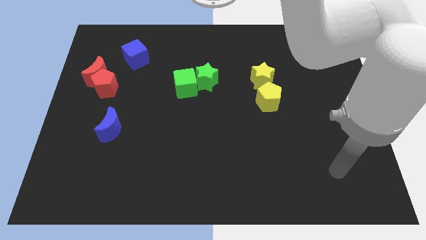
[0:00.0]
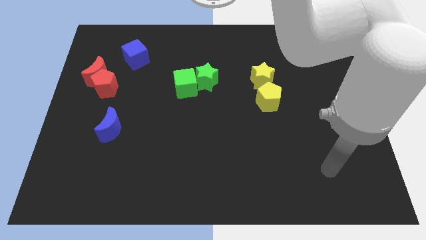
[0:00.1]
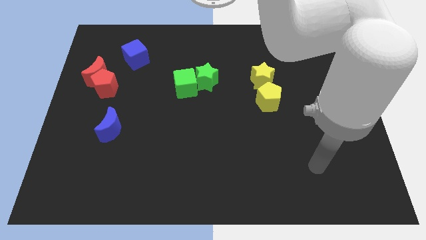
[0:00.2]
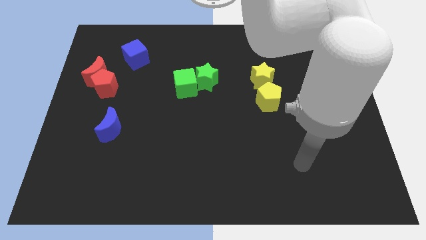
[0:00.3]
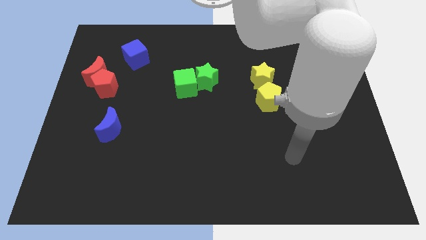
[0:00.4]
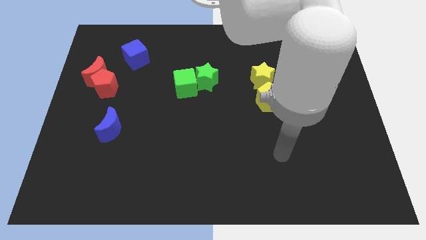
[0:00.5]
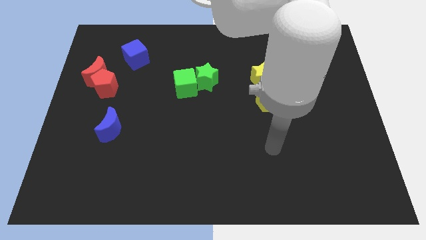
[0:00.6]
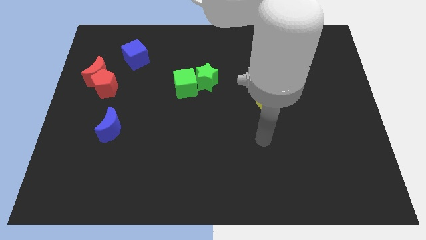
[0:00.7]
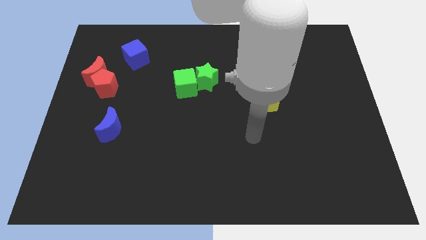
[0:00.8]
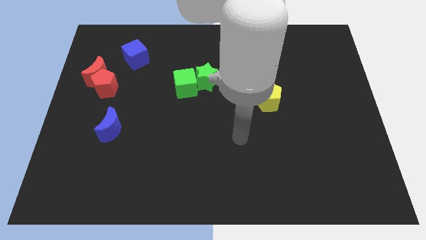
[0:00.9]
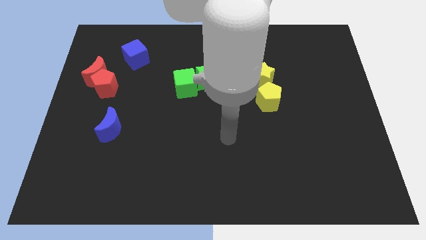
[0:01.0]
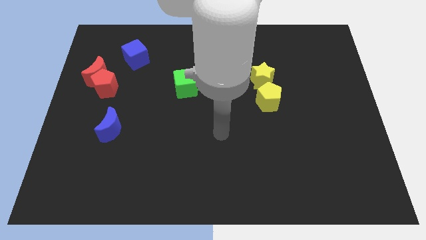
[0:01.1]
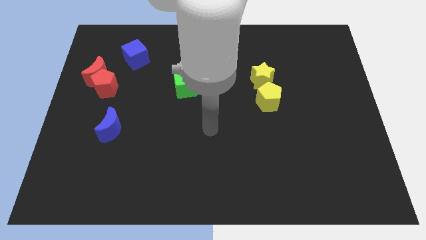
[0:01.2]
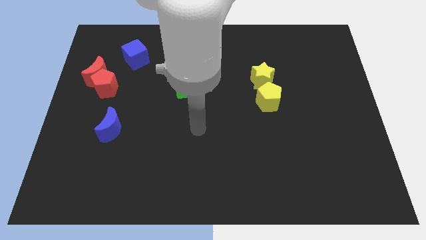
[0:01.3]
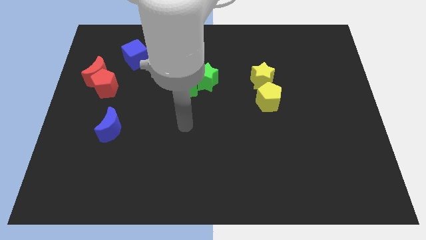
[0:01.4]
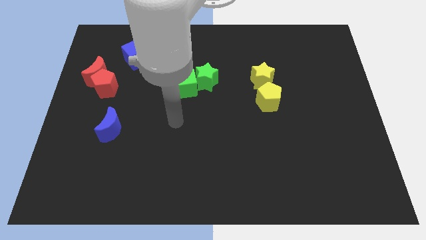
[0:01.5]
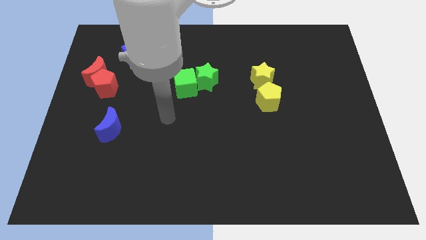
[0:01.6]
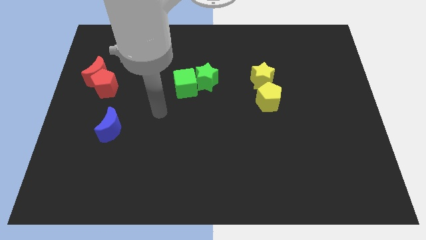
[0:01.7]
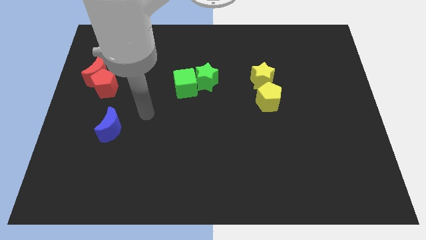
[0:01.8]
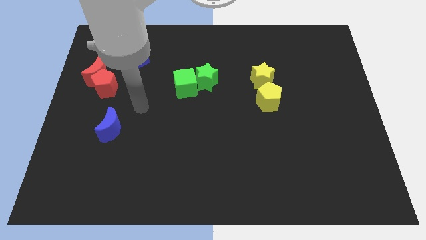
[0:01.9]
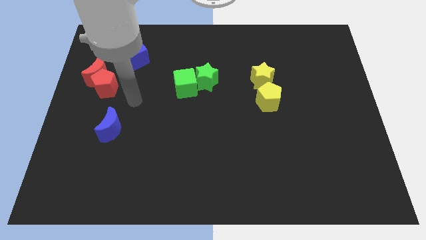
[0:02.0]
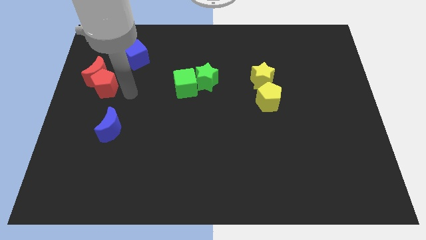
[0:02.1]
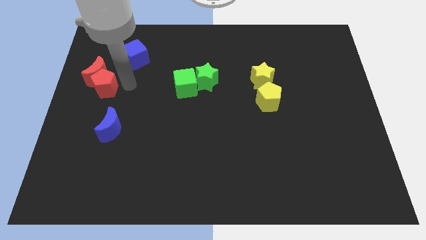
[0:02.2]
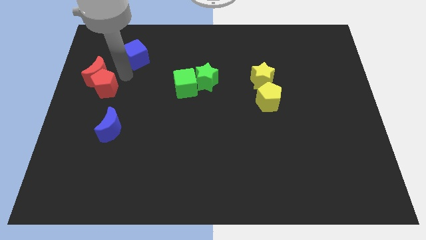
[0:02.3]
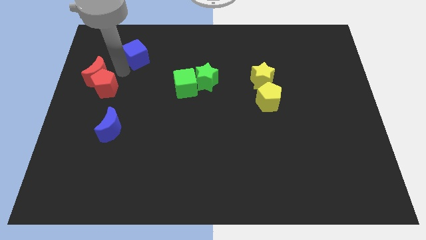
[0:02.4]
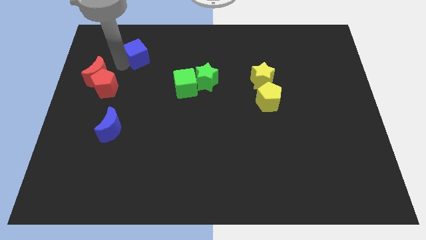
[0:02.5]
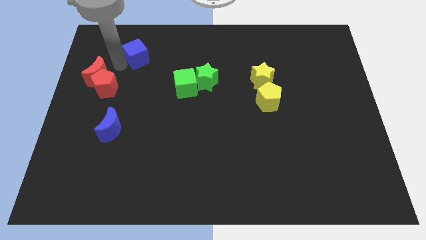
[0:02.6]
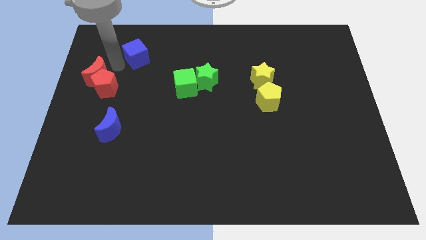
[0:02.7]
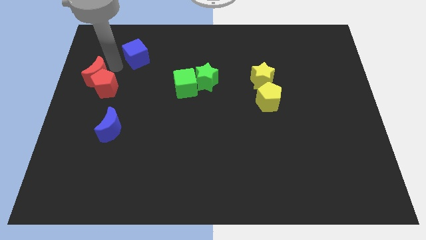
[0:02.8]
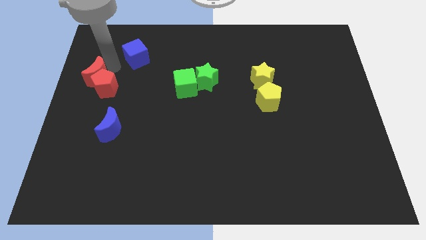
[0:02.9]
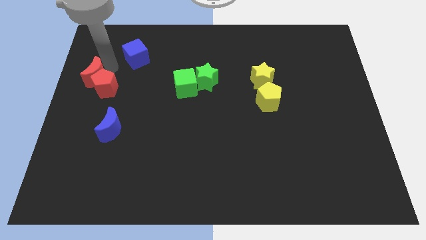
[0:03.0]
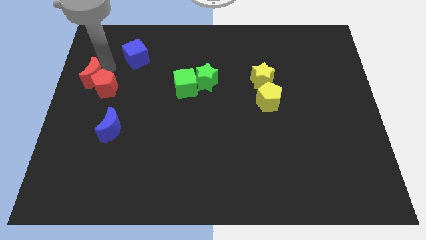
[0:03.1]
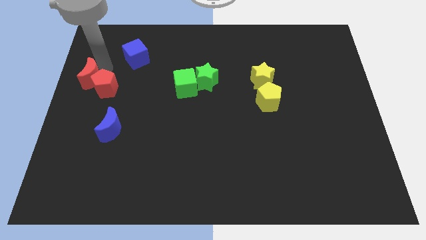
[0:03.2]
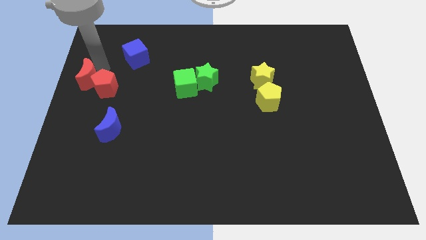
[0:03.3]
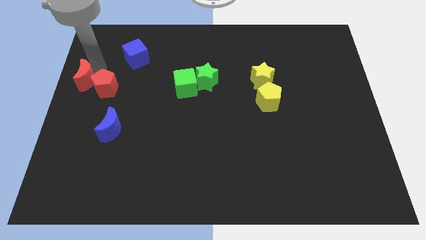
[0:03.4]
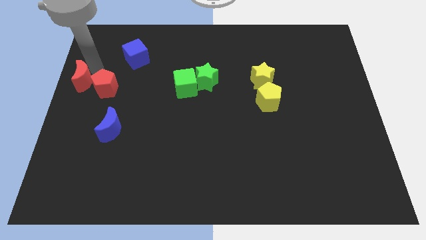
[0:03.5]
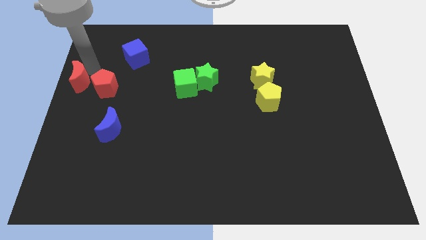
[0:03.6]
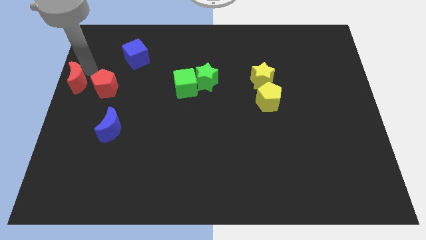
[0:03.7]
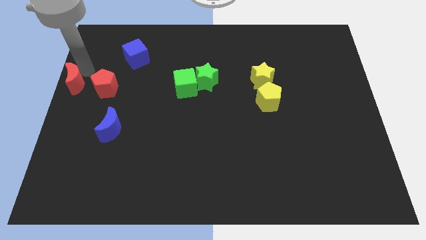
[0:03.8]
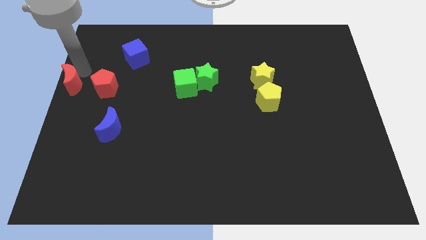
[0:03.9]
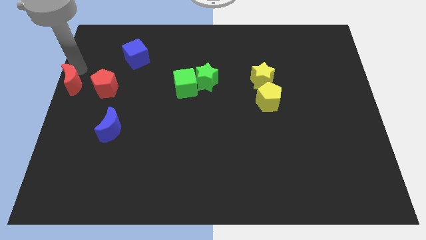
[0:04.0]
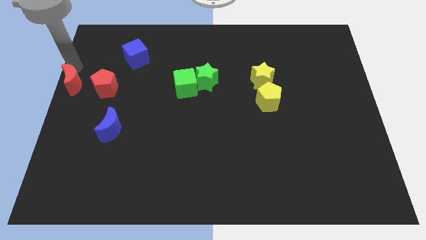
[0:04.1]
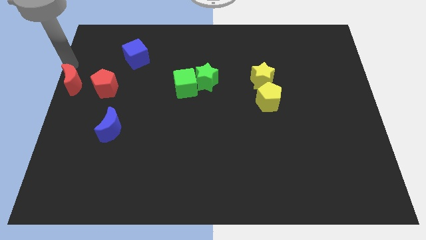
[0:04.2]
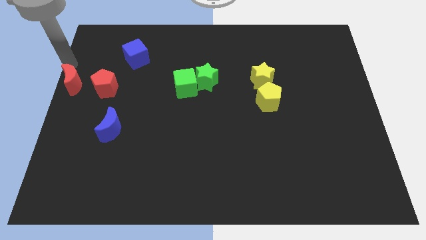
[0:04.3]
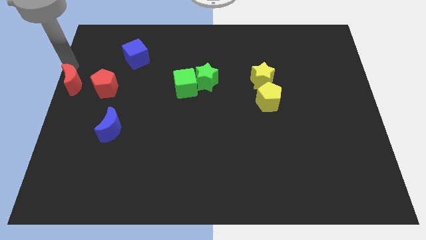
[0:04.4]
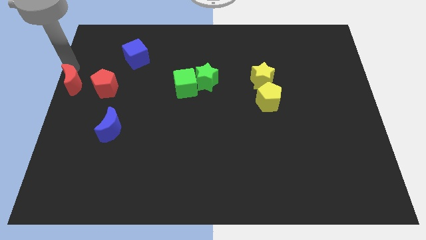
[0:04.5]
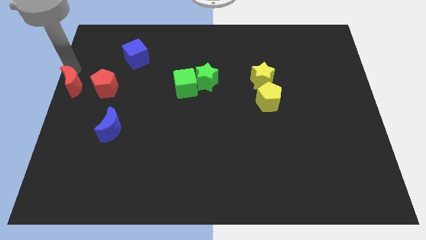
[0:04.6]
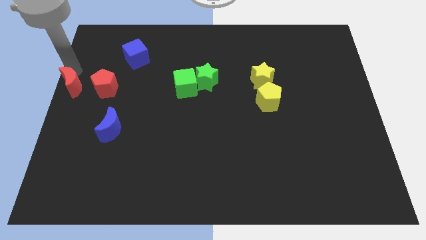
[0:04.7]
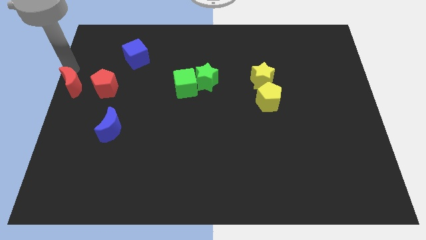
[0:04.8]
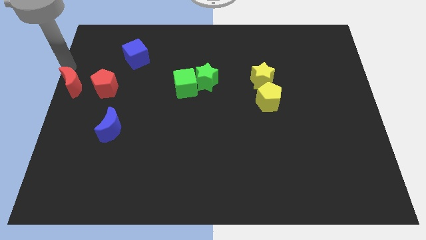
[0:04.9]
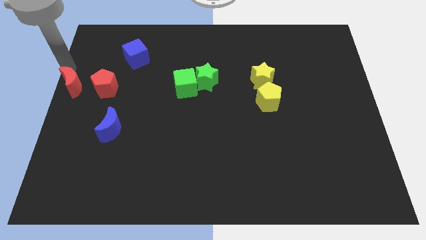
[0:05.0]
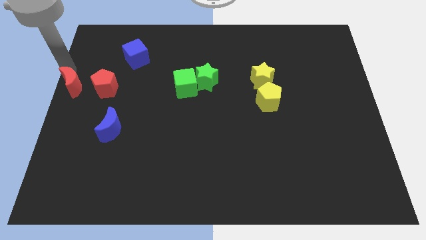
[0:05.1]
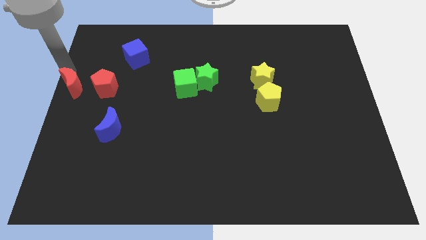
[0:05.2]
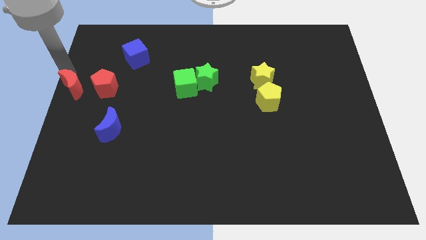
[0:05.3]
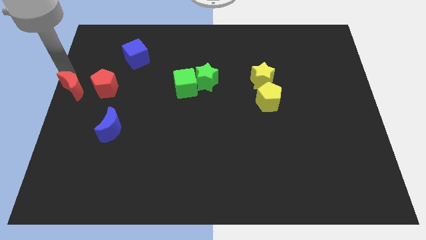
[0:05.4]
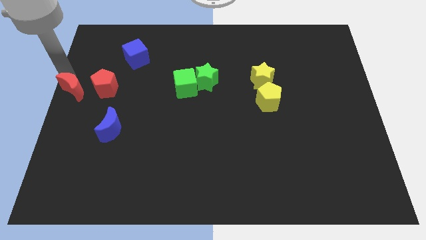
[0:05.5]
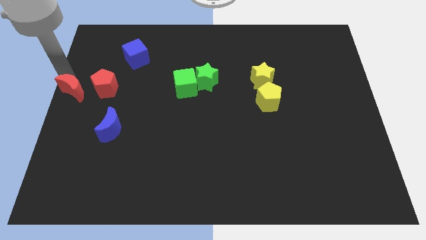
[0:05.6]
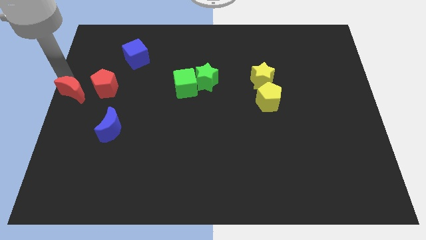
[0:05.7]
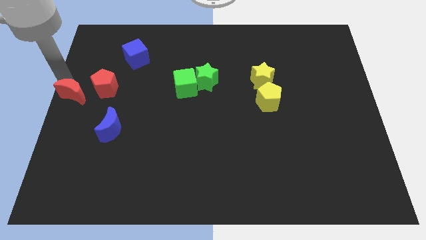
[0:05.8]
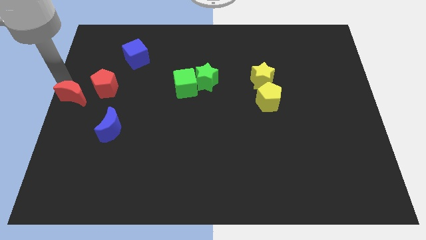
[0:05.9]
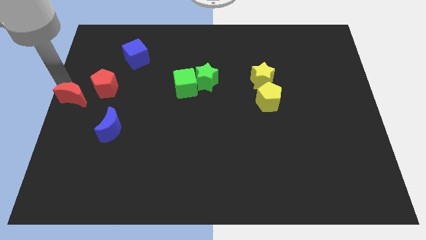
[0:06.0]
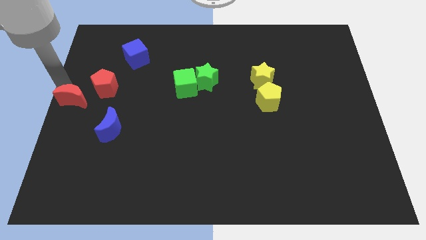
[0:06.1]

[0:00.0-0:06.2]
slide the red moon a little down

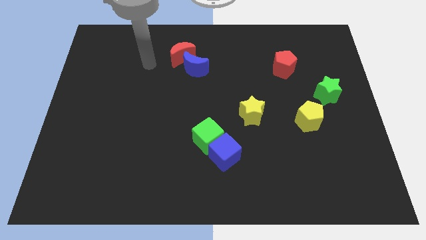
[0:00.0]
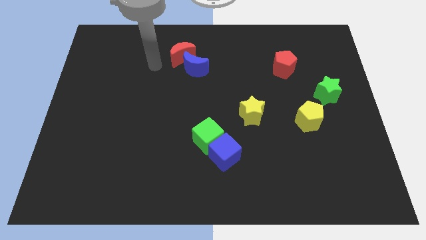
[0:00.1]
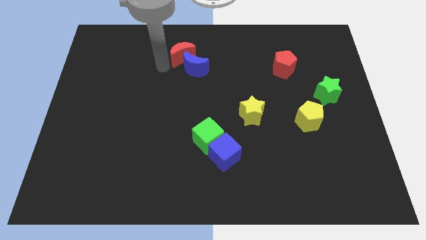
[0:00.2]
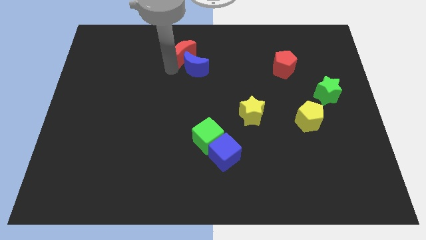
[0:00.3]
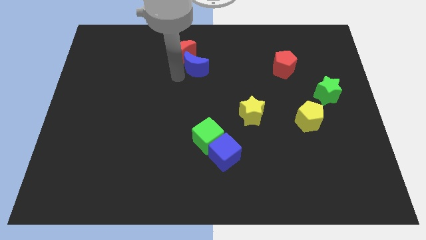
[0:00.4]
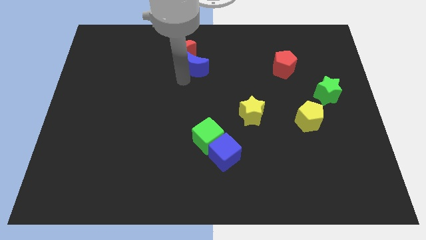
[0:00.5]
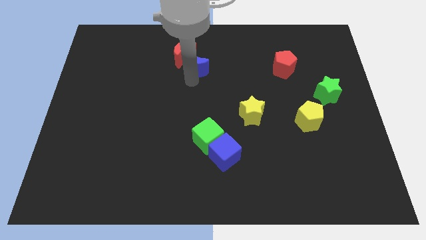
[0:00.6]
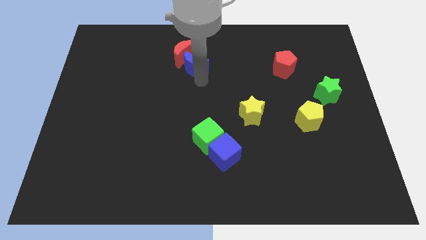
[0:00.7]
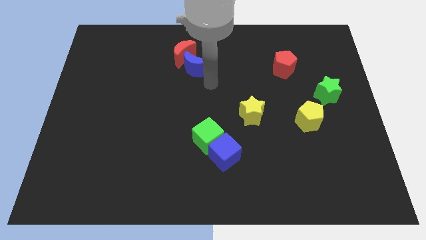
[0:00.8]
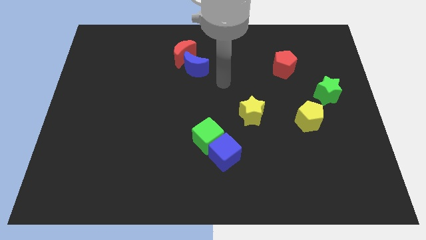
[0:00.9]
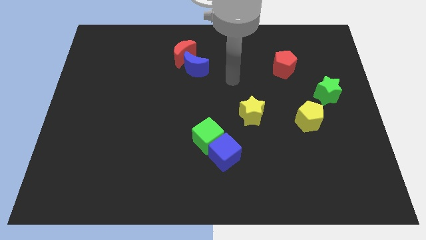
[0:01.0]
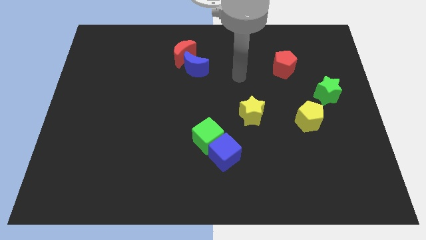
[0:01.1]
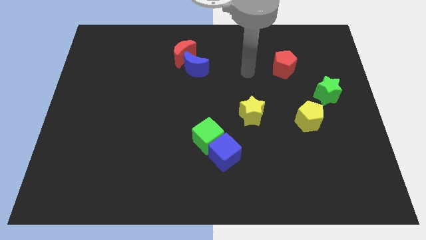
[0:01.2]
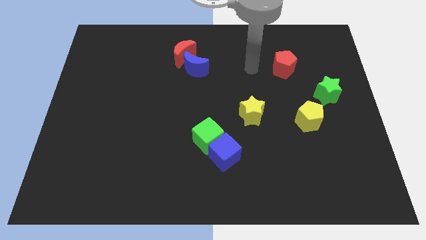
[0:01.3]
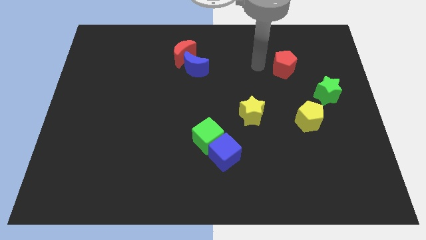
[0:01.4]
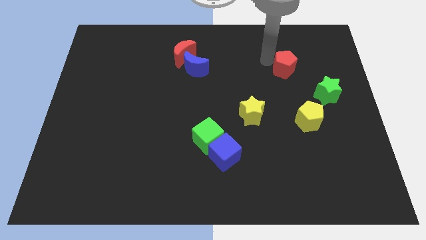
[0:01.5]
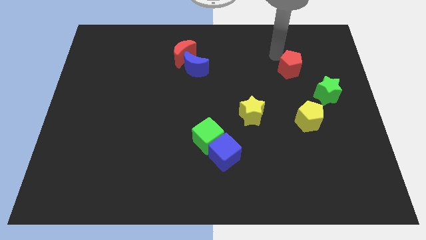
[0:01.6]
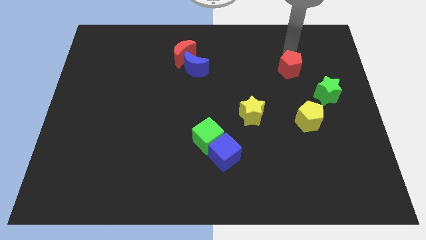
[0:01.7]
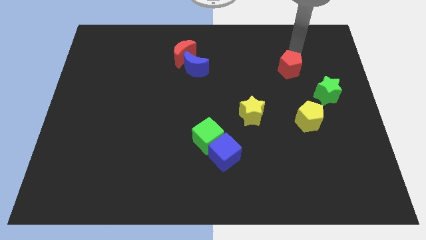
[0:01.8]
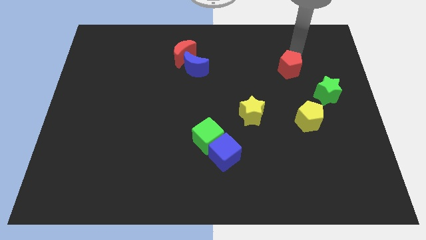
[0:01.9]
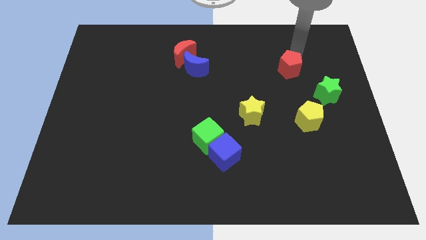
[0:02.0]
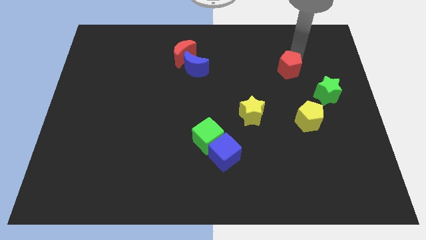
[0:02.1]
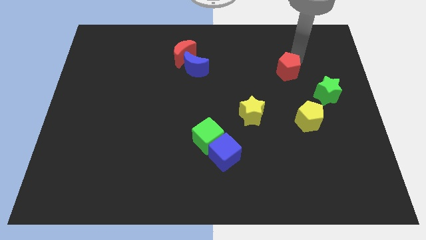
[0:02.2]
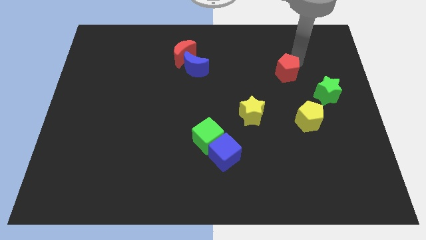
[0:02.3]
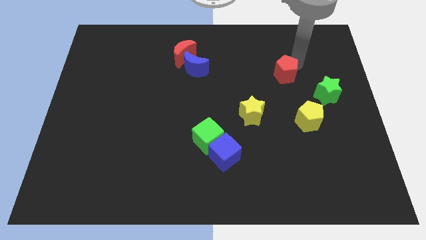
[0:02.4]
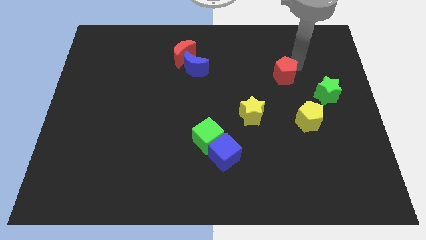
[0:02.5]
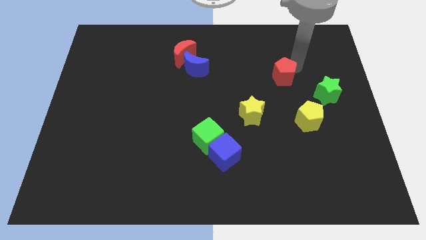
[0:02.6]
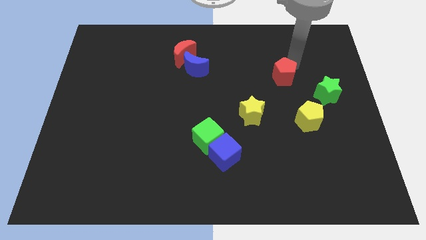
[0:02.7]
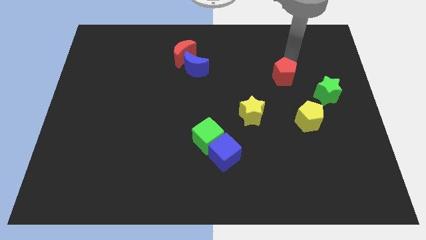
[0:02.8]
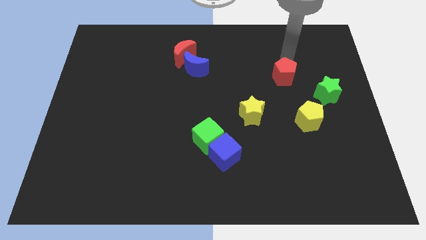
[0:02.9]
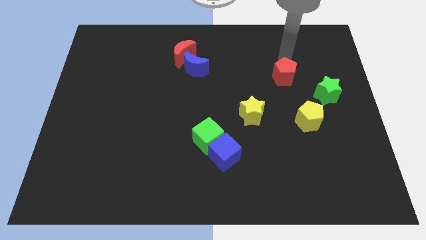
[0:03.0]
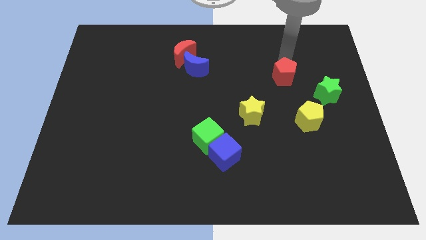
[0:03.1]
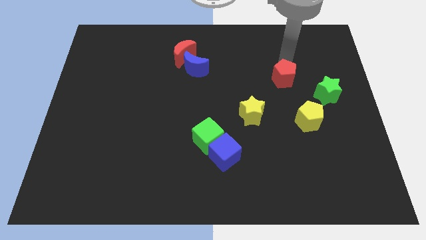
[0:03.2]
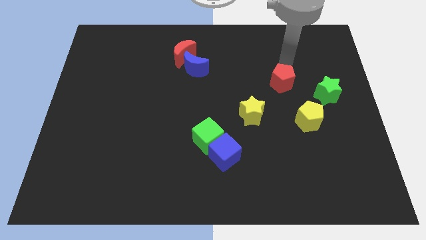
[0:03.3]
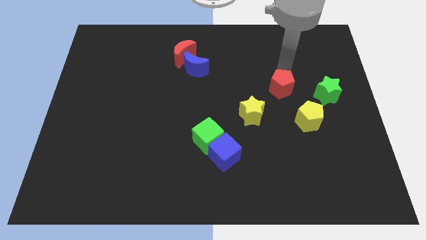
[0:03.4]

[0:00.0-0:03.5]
slide the red pentagon a little bit down
